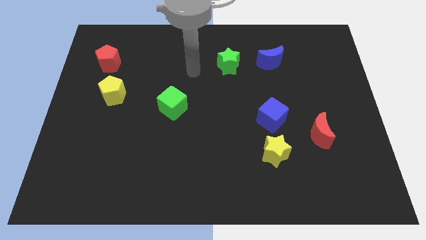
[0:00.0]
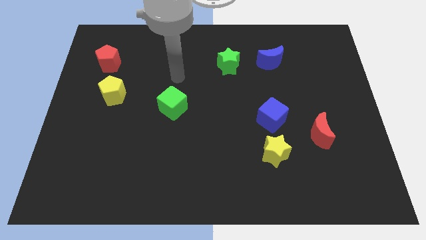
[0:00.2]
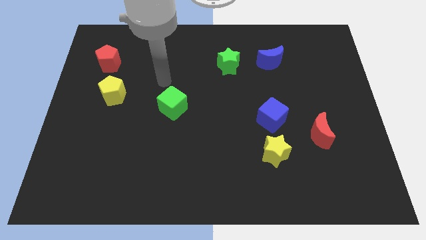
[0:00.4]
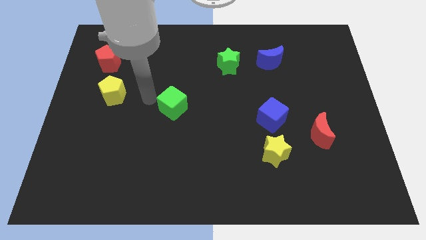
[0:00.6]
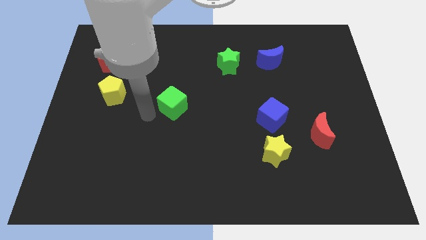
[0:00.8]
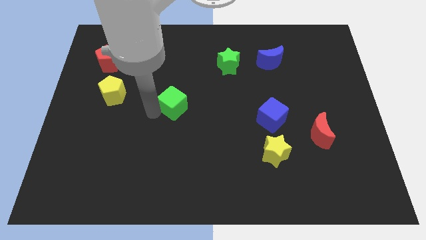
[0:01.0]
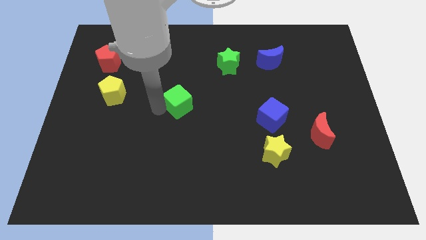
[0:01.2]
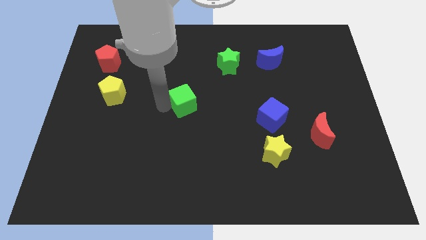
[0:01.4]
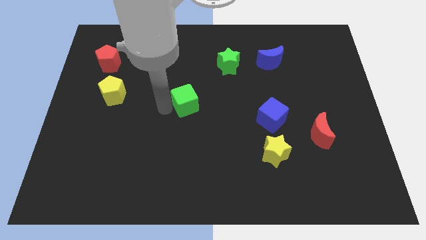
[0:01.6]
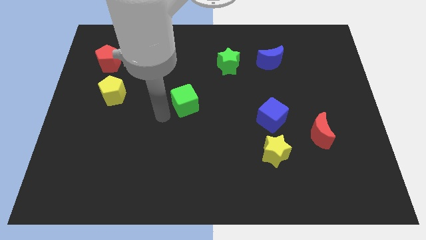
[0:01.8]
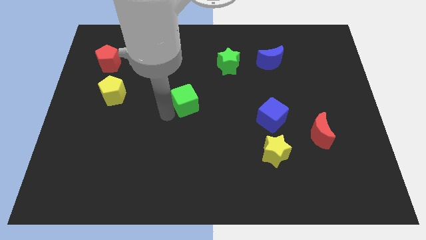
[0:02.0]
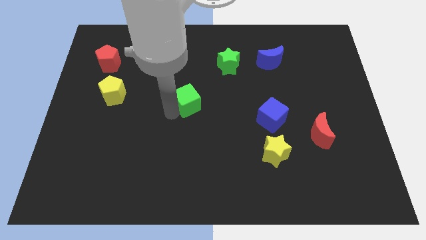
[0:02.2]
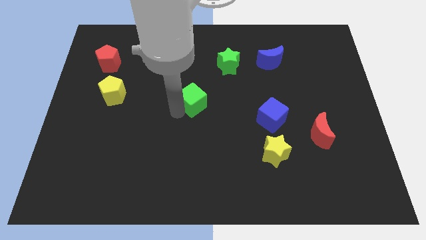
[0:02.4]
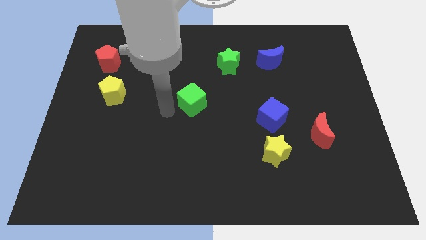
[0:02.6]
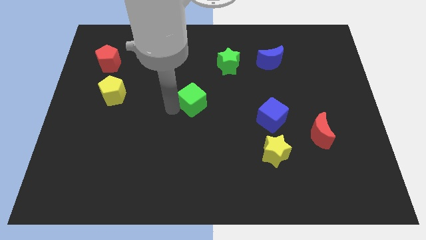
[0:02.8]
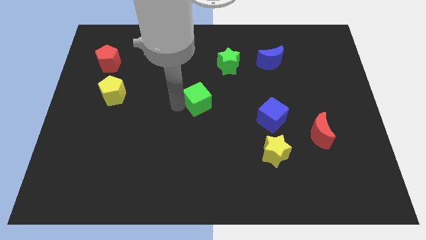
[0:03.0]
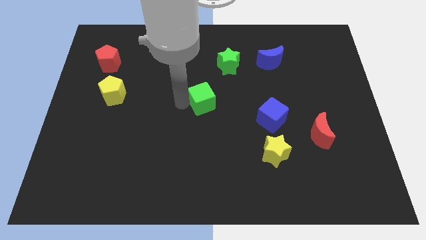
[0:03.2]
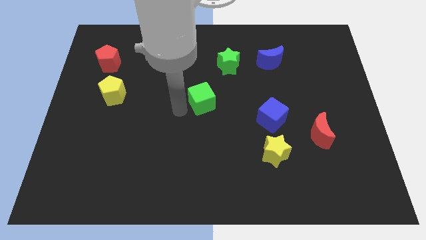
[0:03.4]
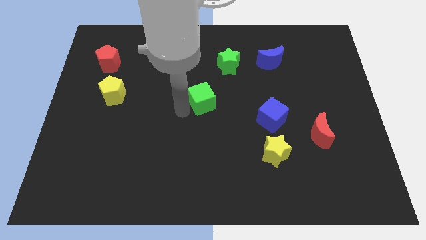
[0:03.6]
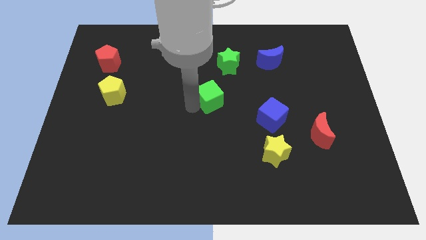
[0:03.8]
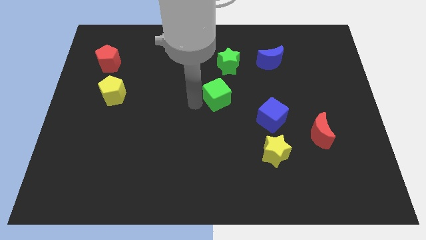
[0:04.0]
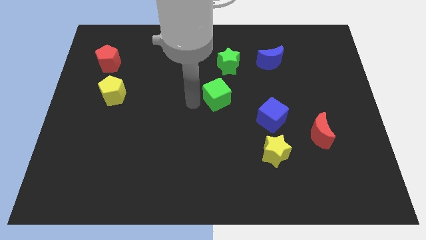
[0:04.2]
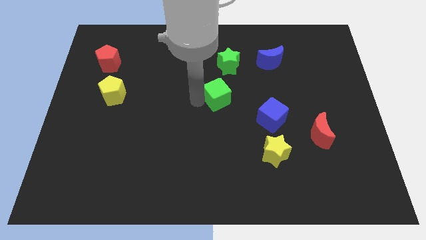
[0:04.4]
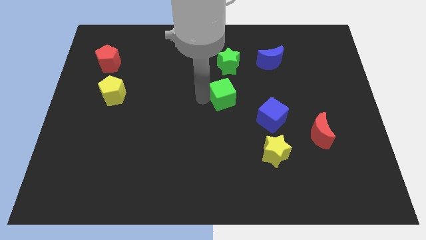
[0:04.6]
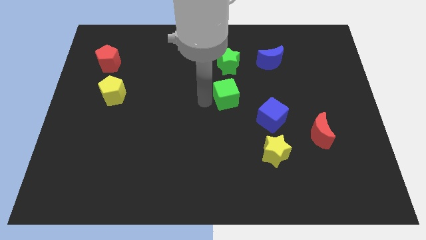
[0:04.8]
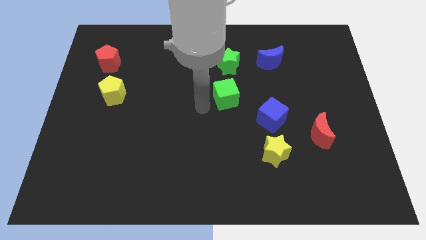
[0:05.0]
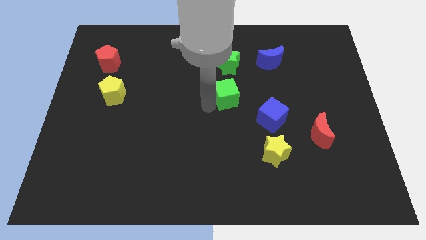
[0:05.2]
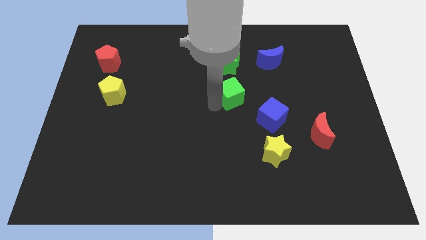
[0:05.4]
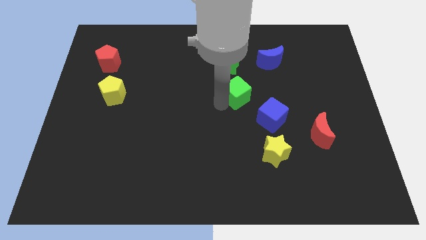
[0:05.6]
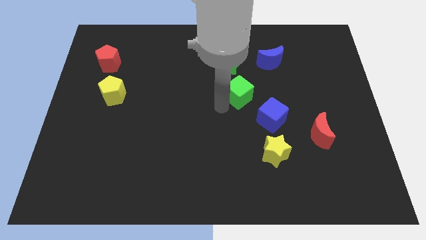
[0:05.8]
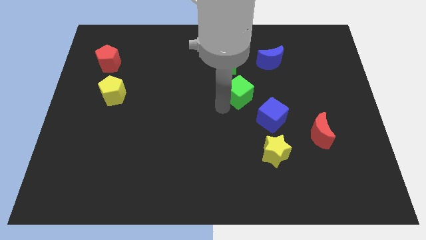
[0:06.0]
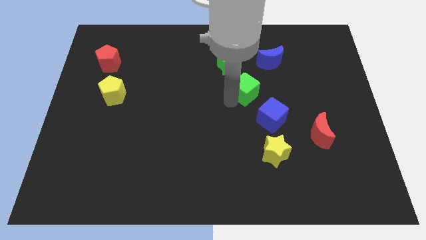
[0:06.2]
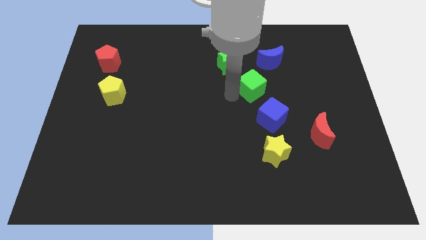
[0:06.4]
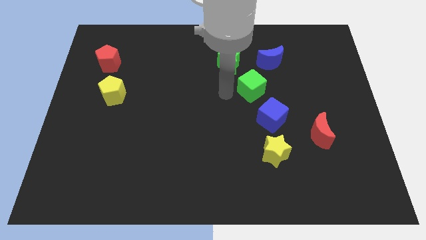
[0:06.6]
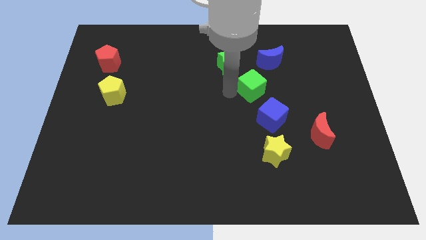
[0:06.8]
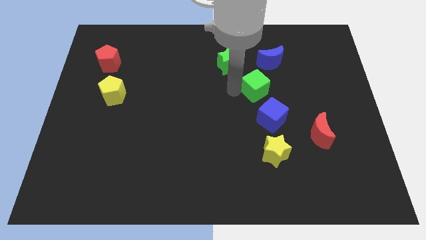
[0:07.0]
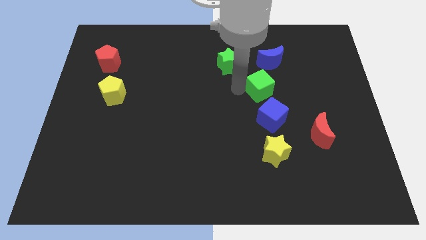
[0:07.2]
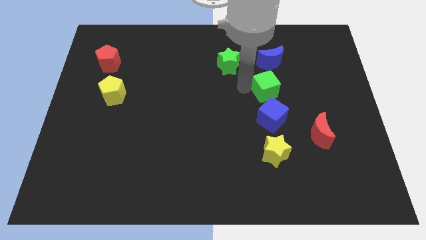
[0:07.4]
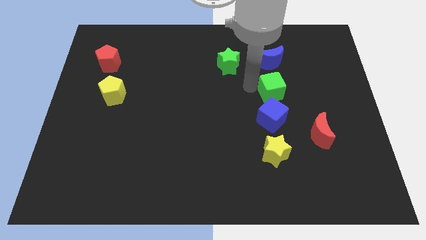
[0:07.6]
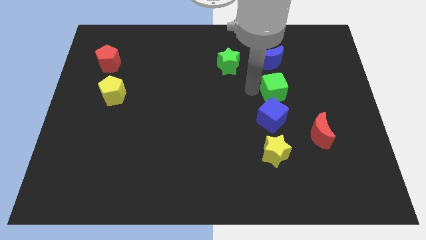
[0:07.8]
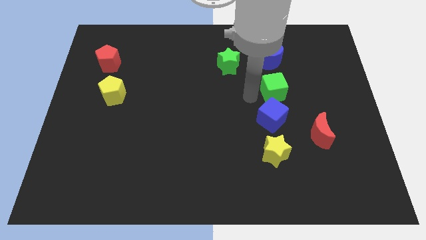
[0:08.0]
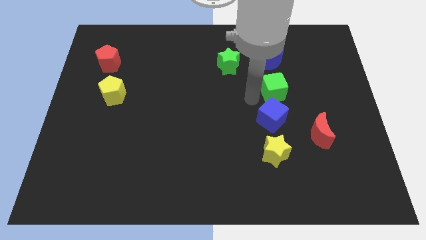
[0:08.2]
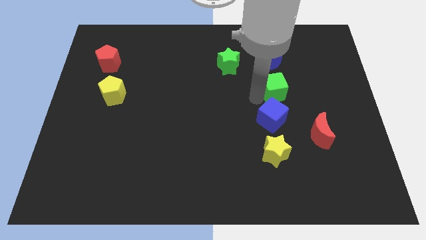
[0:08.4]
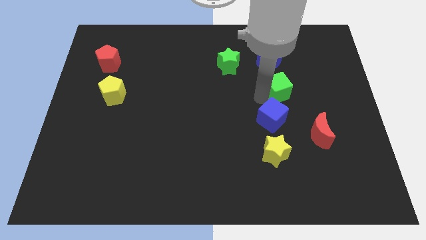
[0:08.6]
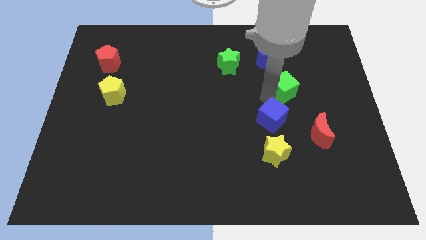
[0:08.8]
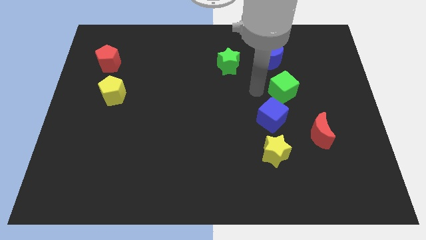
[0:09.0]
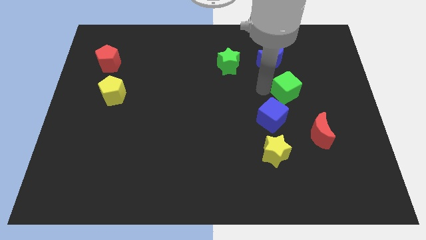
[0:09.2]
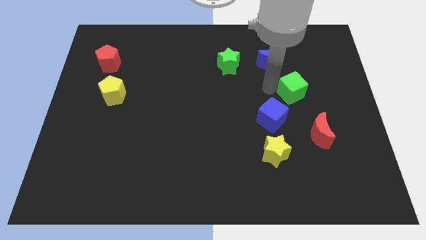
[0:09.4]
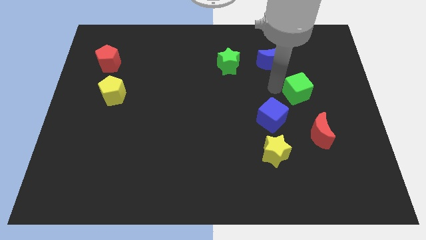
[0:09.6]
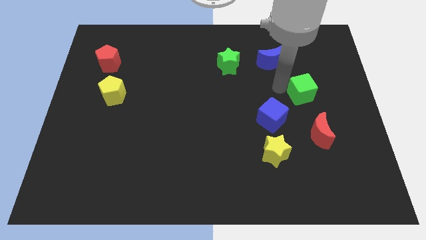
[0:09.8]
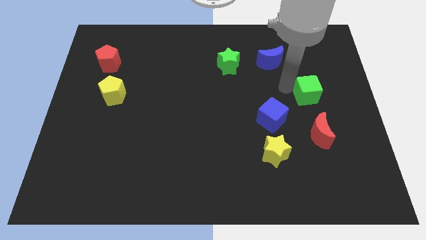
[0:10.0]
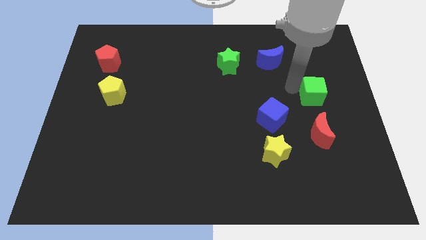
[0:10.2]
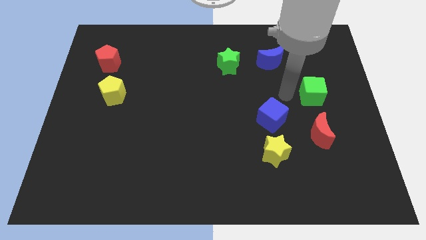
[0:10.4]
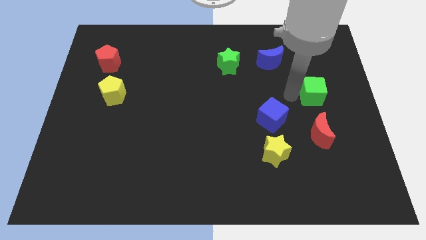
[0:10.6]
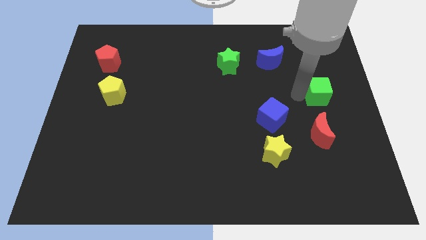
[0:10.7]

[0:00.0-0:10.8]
slide the green cube to the center right
